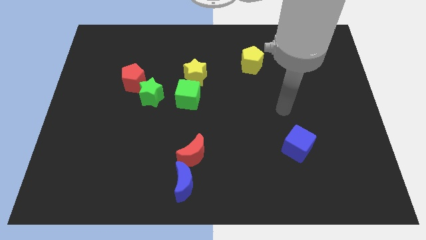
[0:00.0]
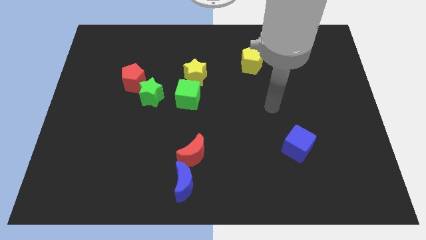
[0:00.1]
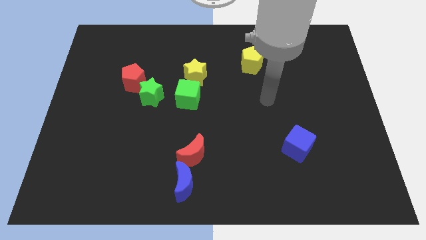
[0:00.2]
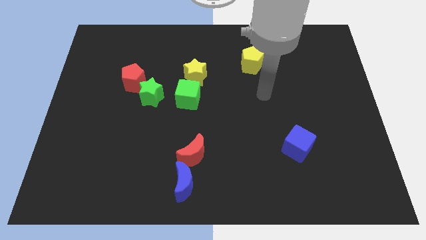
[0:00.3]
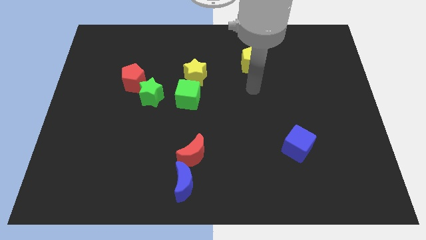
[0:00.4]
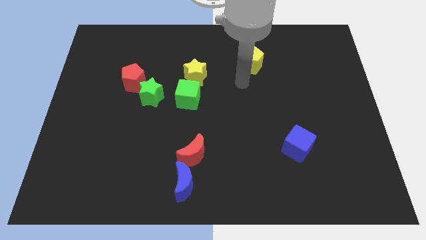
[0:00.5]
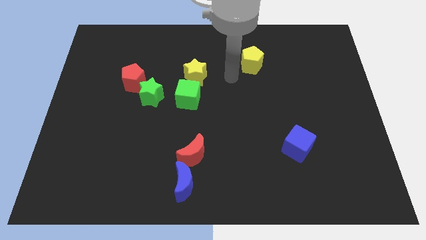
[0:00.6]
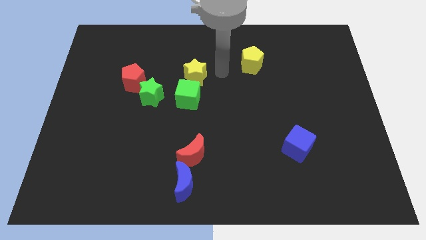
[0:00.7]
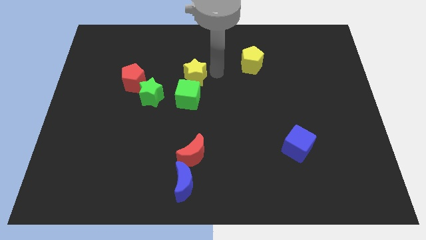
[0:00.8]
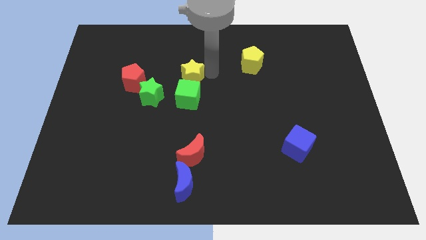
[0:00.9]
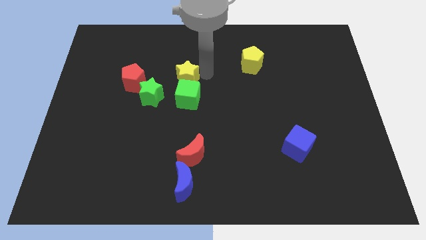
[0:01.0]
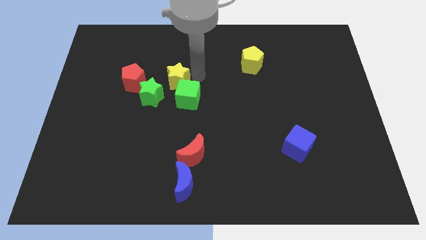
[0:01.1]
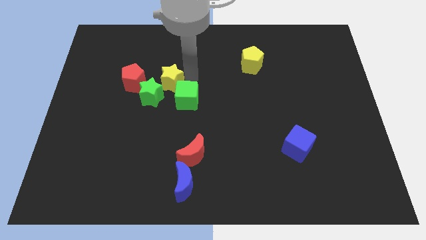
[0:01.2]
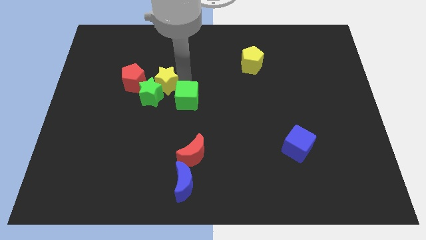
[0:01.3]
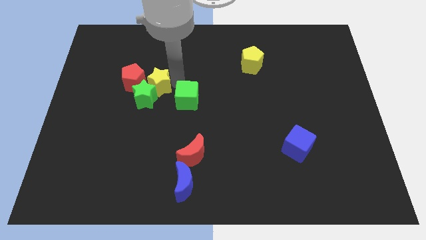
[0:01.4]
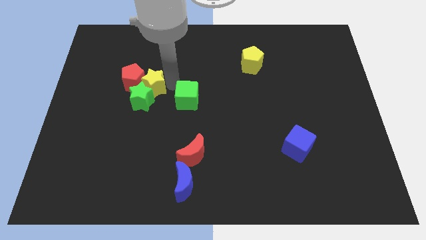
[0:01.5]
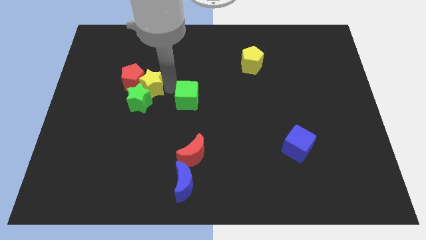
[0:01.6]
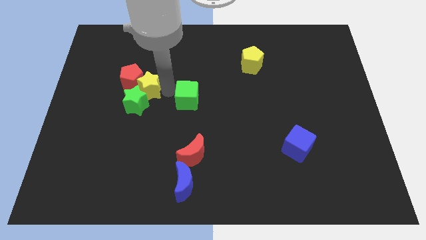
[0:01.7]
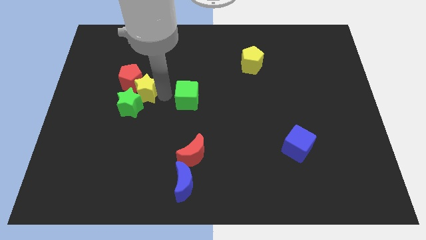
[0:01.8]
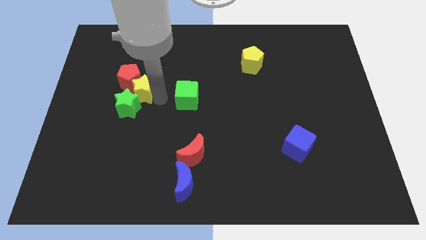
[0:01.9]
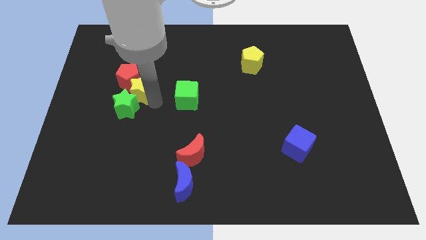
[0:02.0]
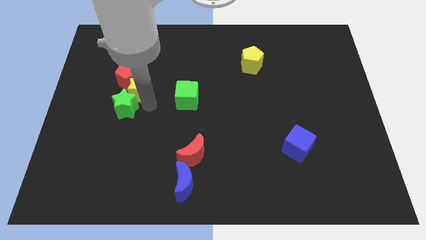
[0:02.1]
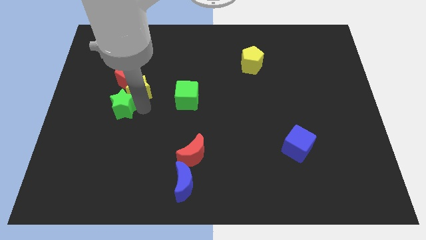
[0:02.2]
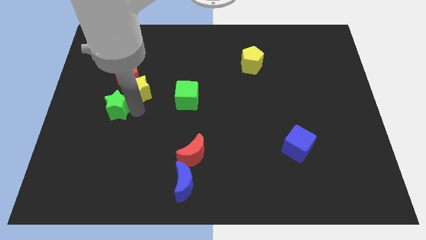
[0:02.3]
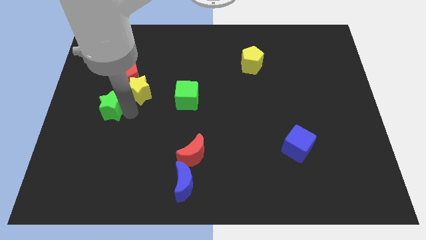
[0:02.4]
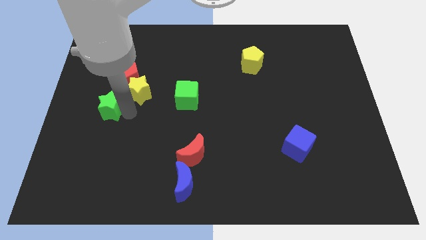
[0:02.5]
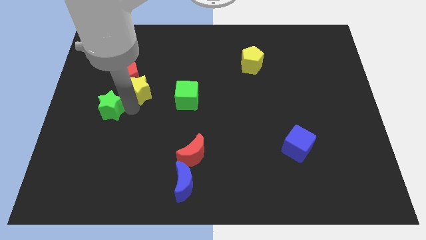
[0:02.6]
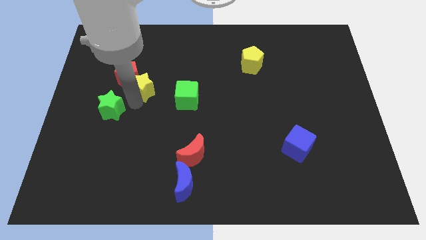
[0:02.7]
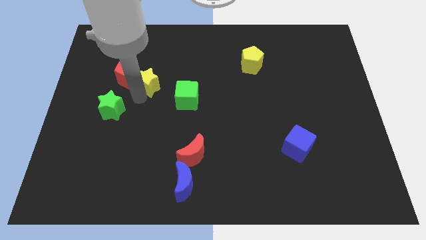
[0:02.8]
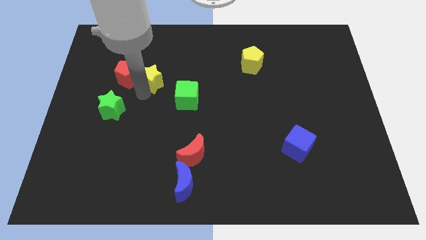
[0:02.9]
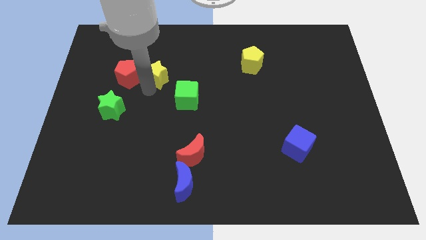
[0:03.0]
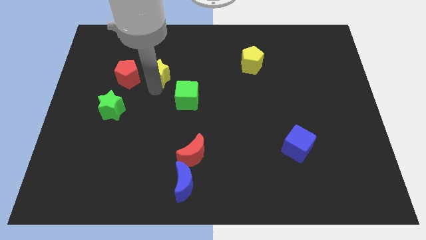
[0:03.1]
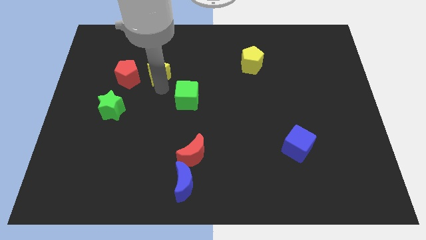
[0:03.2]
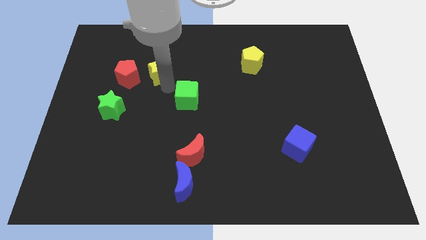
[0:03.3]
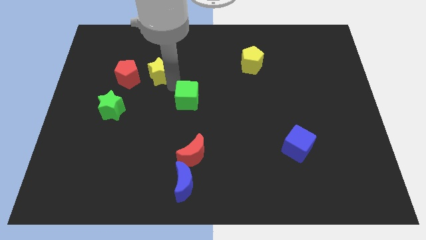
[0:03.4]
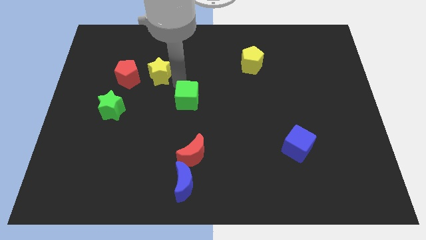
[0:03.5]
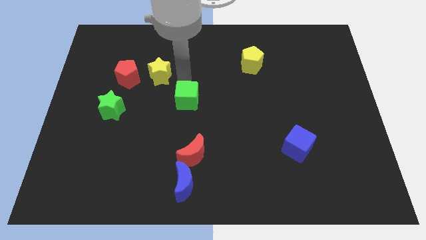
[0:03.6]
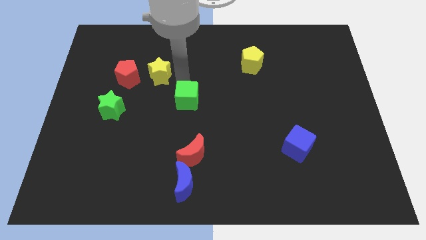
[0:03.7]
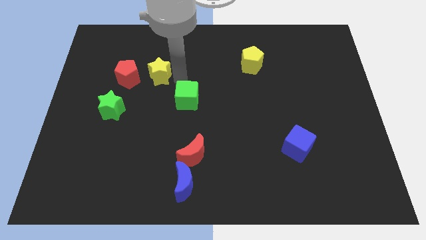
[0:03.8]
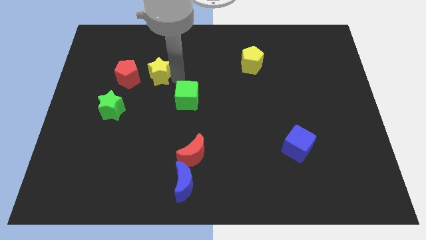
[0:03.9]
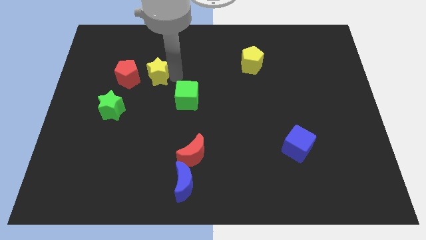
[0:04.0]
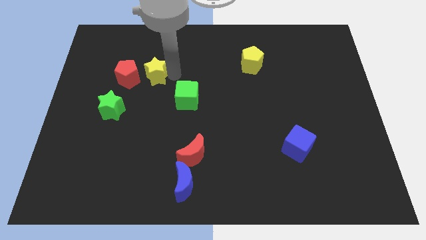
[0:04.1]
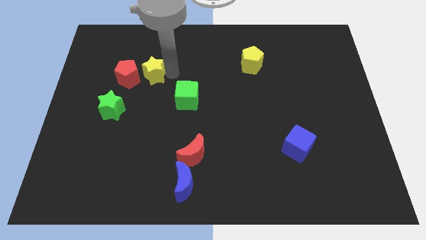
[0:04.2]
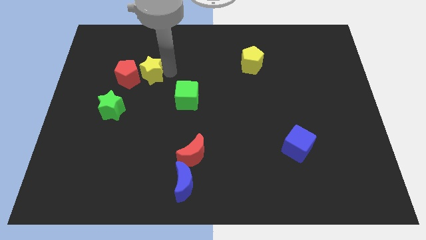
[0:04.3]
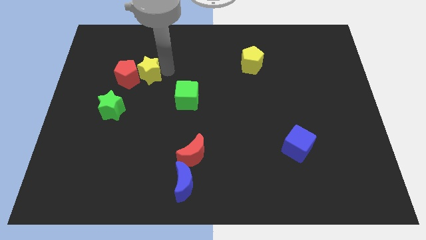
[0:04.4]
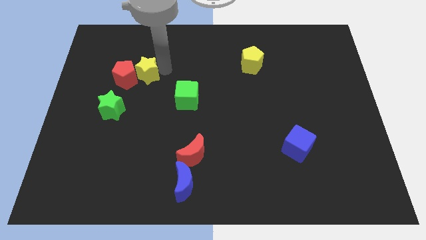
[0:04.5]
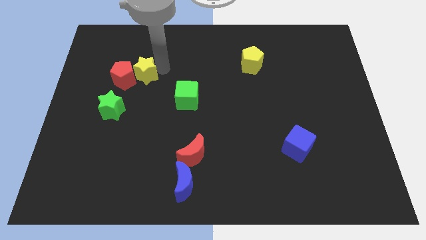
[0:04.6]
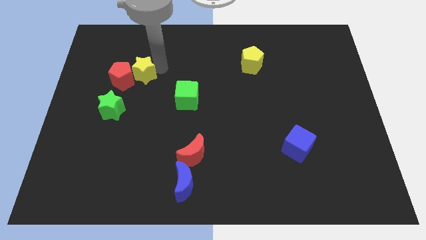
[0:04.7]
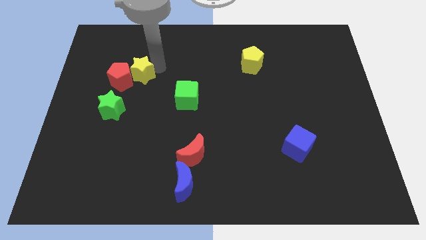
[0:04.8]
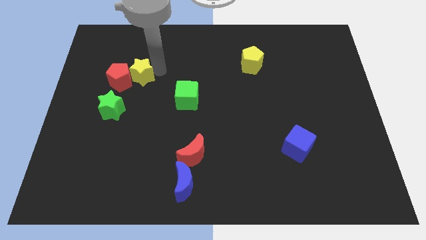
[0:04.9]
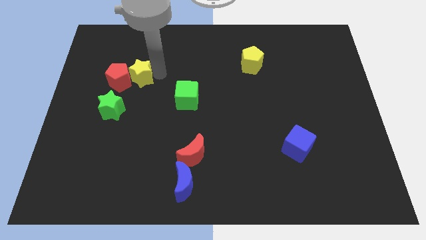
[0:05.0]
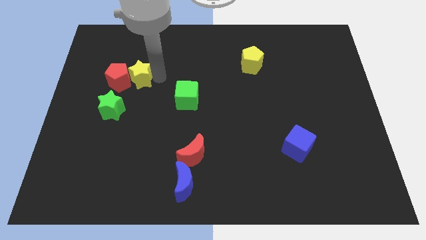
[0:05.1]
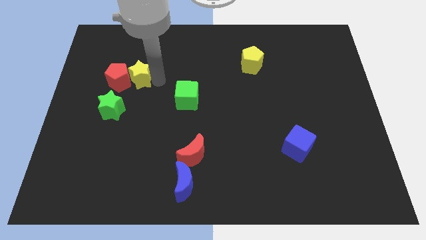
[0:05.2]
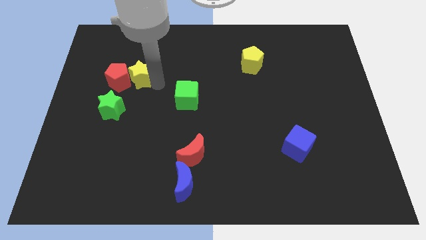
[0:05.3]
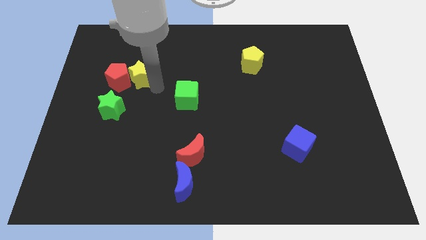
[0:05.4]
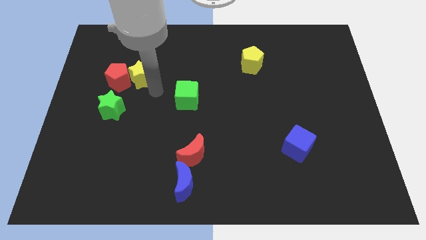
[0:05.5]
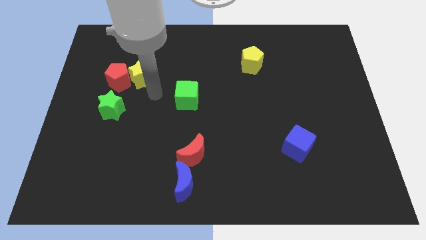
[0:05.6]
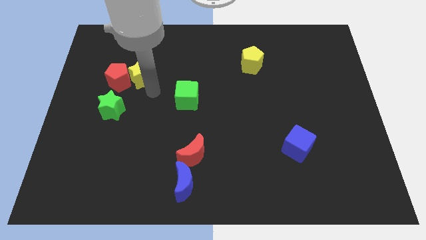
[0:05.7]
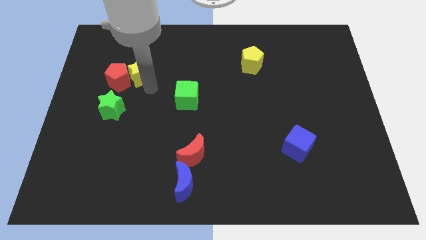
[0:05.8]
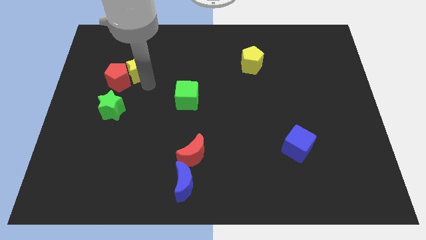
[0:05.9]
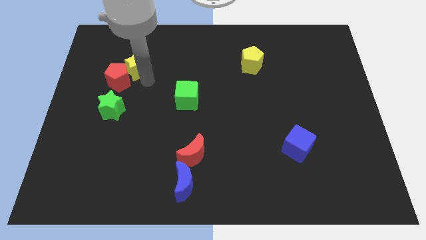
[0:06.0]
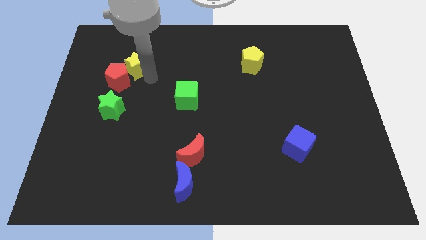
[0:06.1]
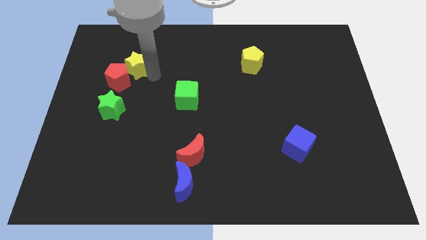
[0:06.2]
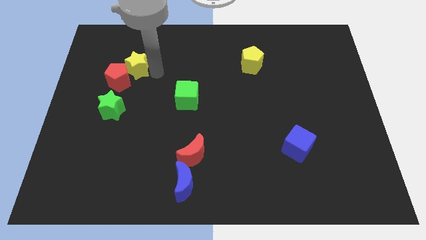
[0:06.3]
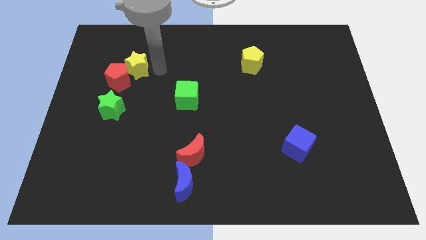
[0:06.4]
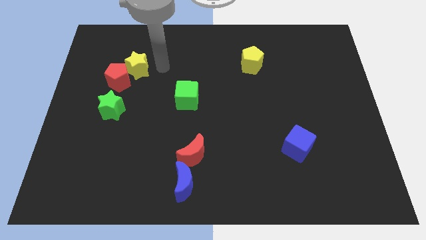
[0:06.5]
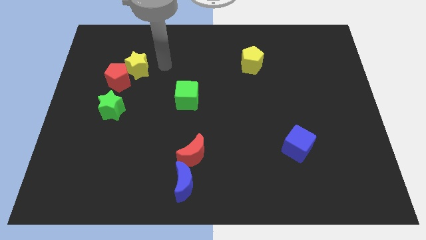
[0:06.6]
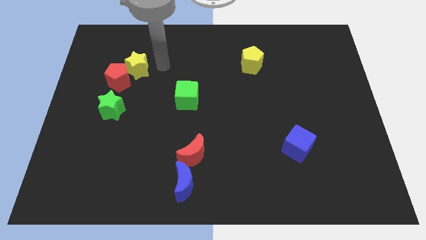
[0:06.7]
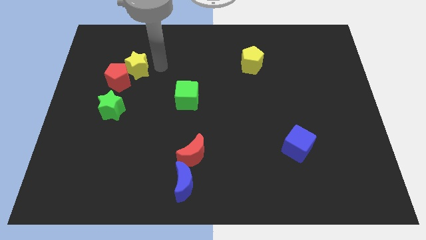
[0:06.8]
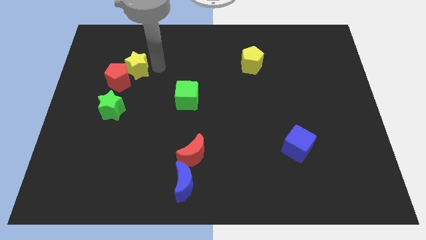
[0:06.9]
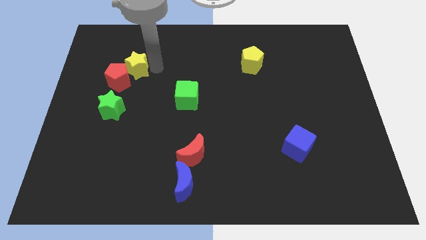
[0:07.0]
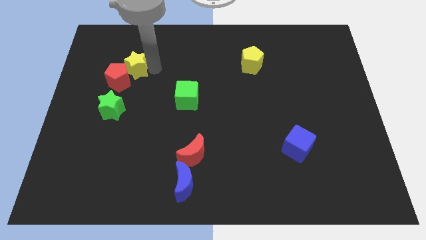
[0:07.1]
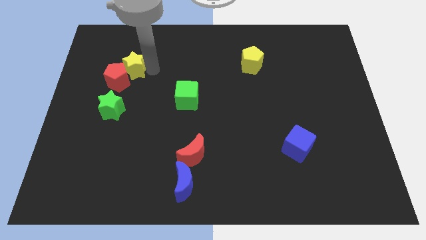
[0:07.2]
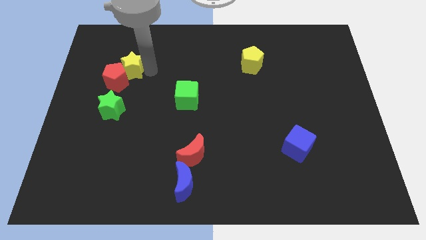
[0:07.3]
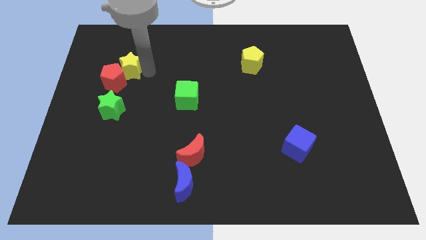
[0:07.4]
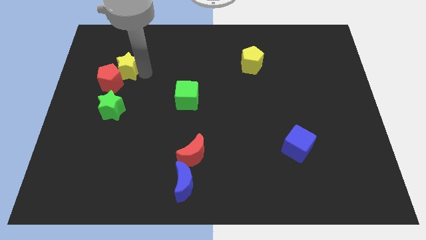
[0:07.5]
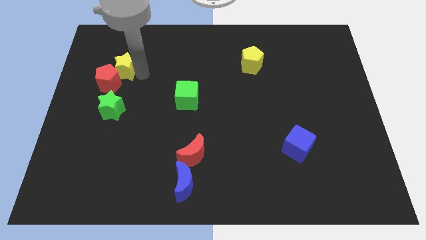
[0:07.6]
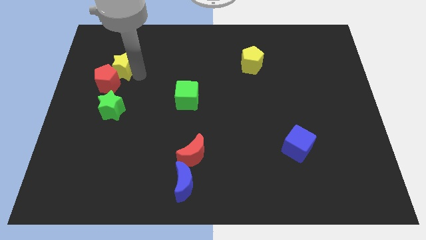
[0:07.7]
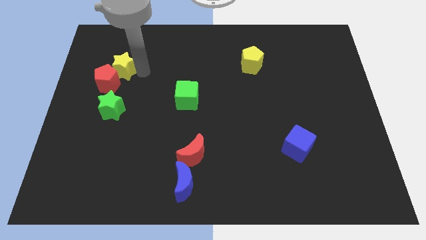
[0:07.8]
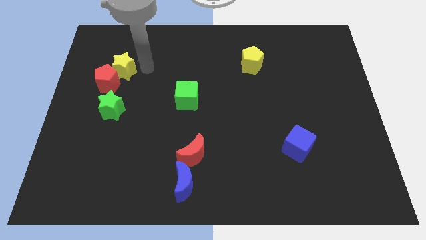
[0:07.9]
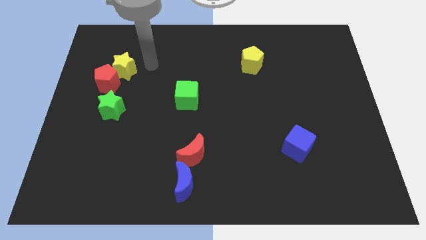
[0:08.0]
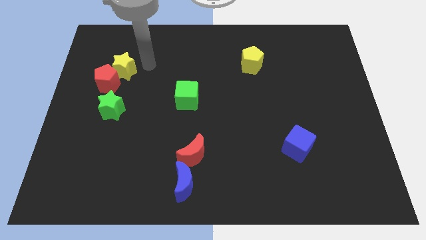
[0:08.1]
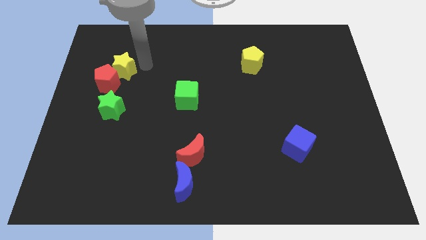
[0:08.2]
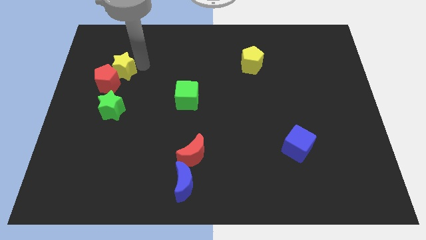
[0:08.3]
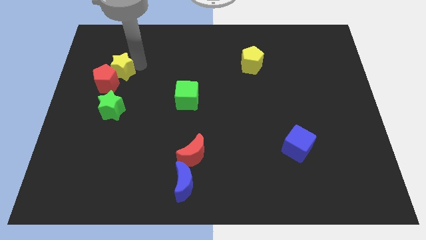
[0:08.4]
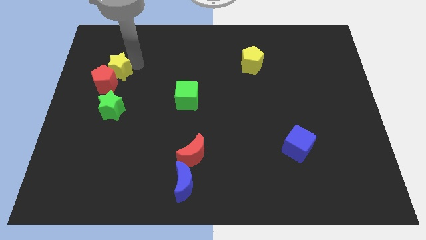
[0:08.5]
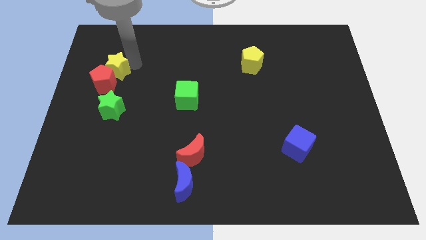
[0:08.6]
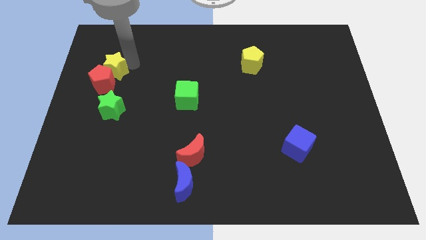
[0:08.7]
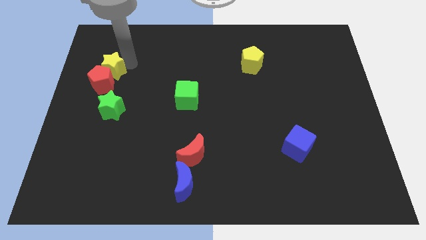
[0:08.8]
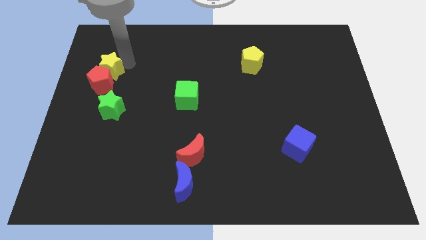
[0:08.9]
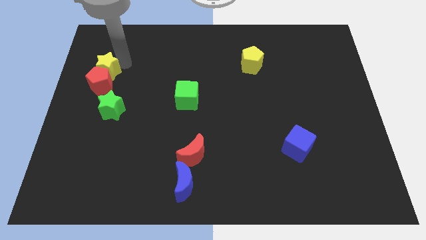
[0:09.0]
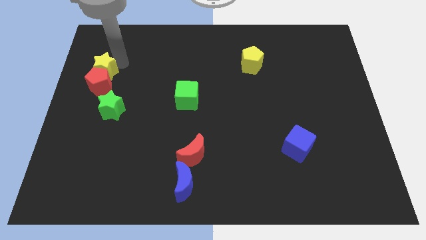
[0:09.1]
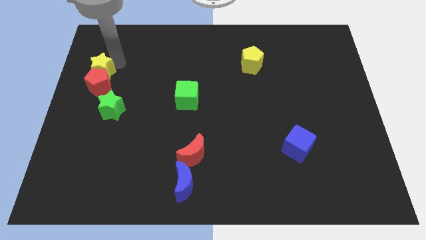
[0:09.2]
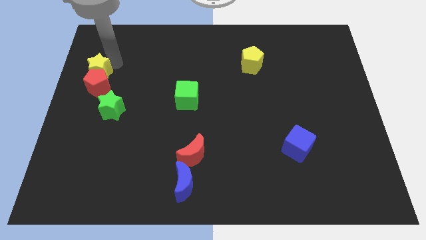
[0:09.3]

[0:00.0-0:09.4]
put the yellow star to the center left
